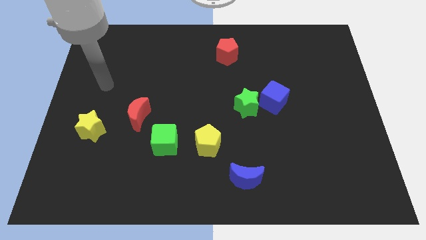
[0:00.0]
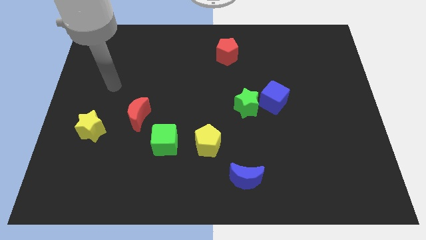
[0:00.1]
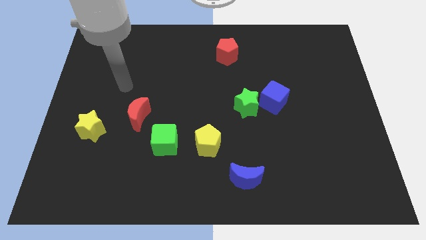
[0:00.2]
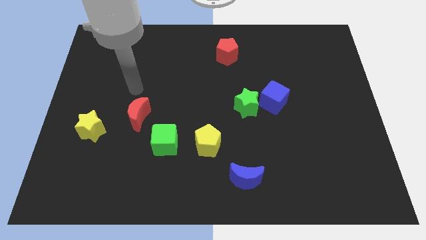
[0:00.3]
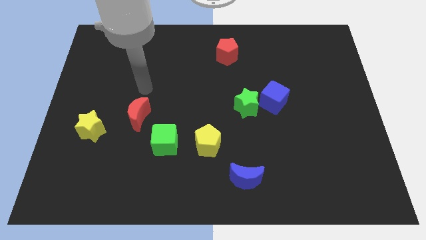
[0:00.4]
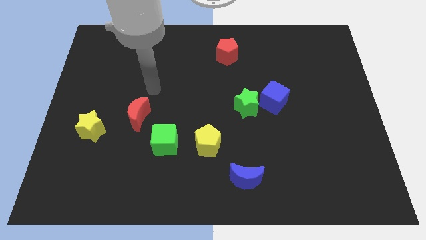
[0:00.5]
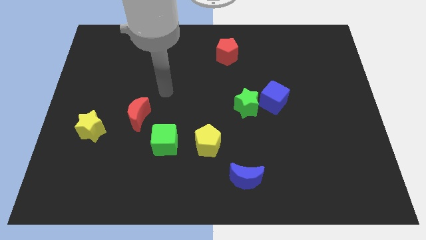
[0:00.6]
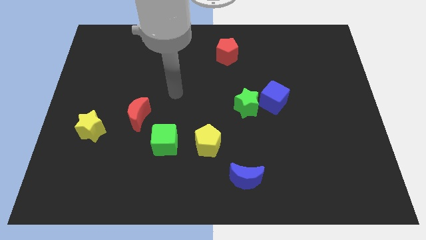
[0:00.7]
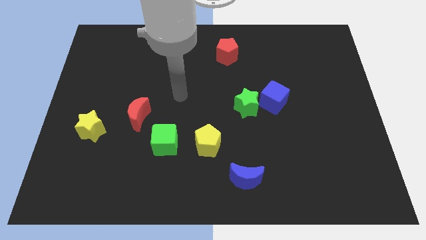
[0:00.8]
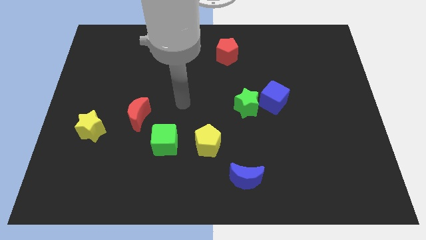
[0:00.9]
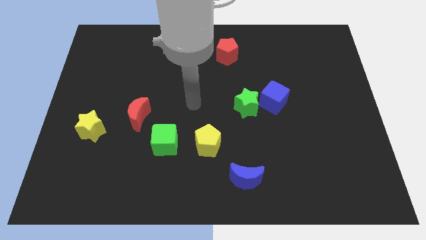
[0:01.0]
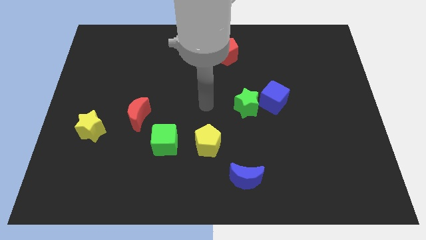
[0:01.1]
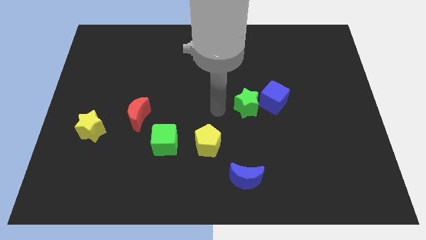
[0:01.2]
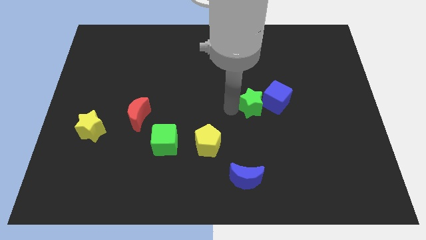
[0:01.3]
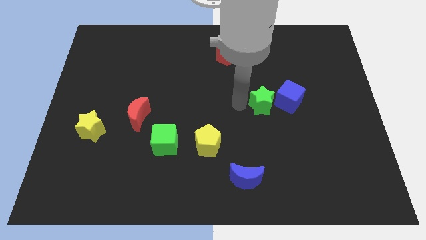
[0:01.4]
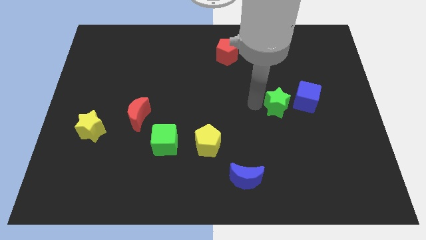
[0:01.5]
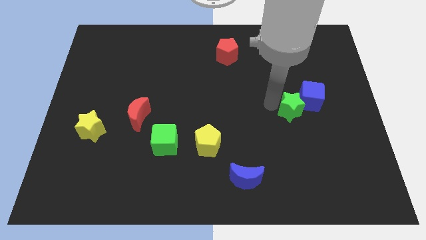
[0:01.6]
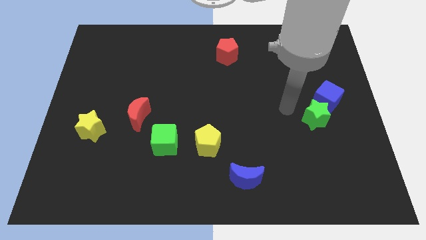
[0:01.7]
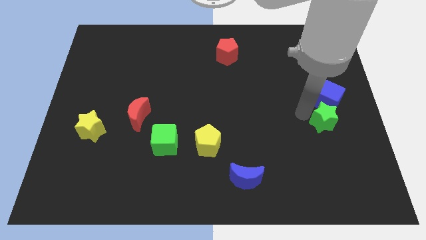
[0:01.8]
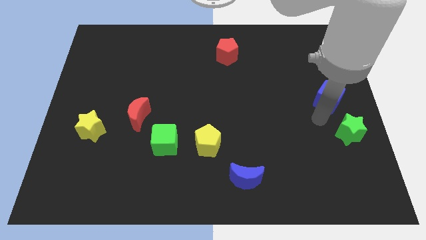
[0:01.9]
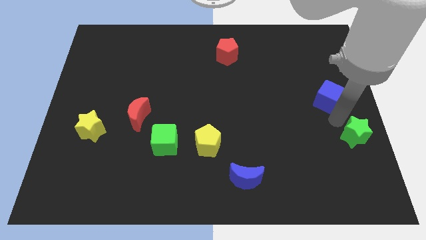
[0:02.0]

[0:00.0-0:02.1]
pull the blue cube apart from the green star

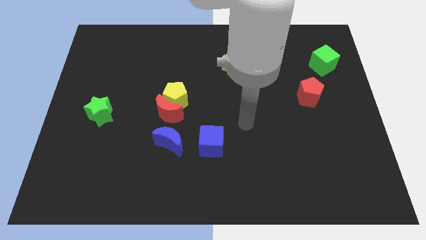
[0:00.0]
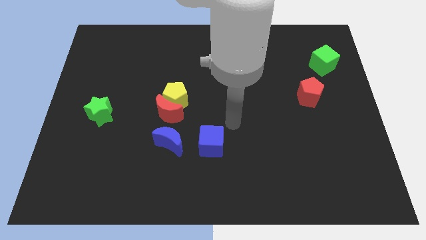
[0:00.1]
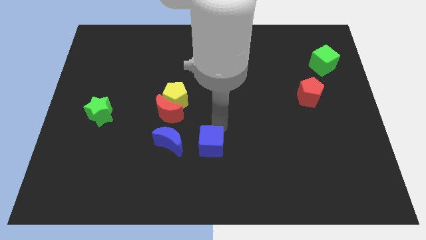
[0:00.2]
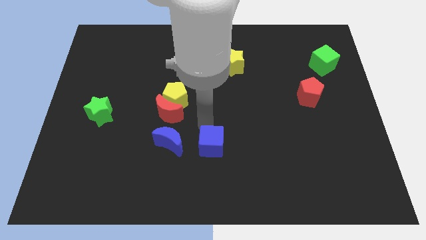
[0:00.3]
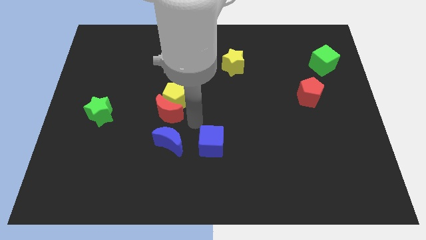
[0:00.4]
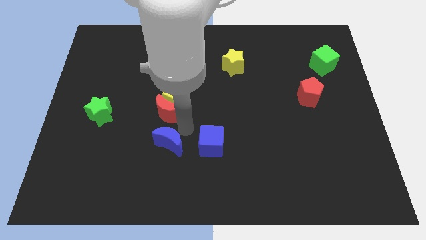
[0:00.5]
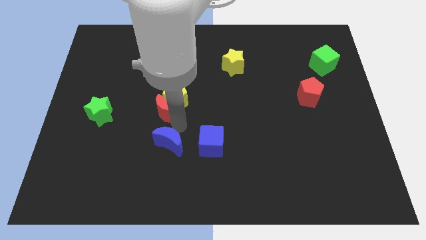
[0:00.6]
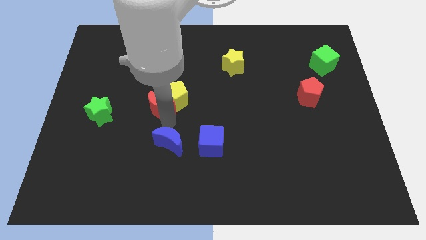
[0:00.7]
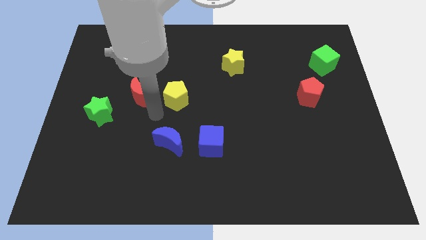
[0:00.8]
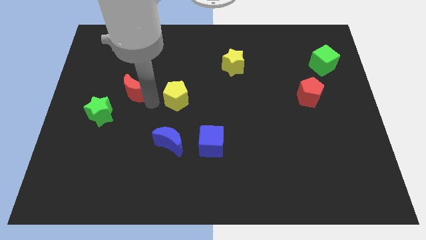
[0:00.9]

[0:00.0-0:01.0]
move the yellow pentagon away from the red moon

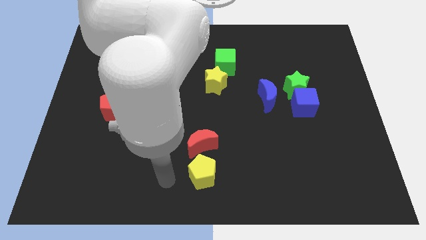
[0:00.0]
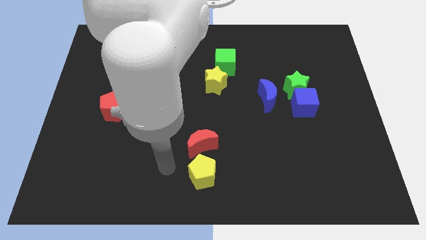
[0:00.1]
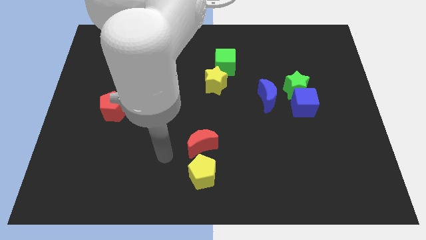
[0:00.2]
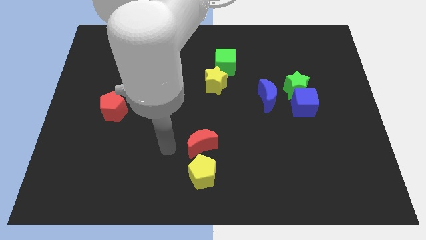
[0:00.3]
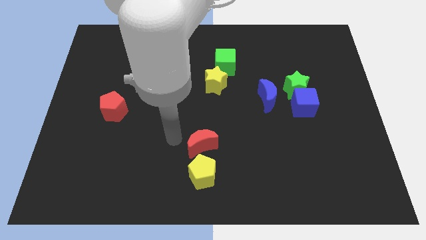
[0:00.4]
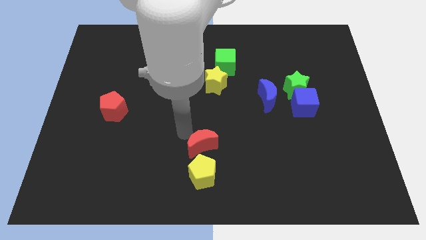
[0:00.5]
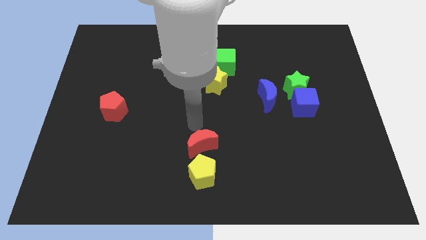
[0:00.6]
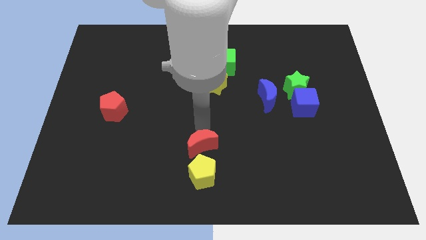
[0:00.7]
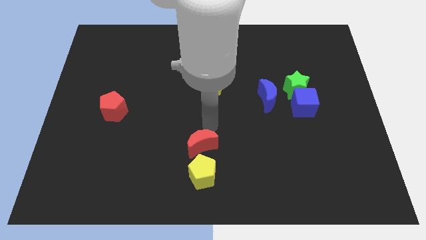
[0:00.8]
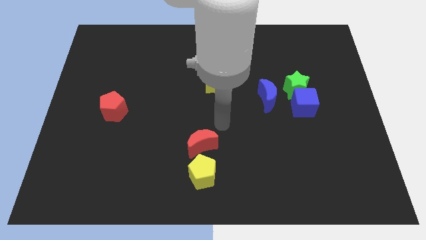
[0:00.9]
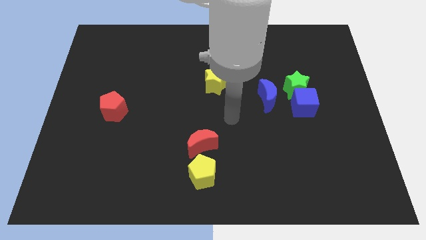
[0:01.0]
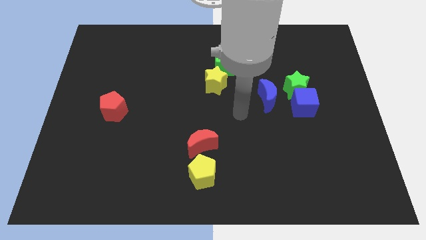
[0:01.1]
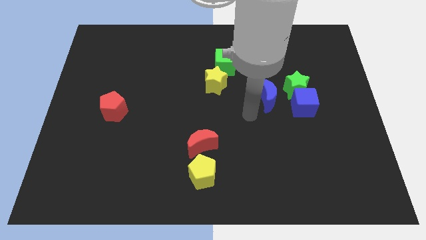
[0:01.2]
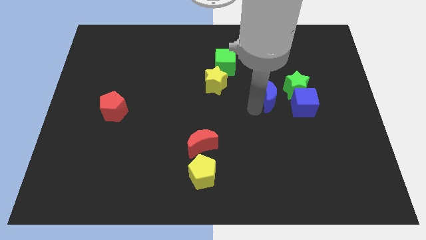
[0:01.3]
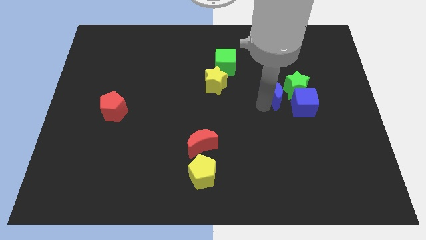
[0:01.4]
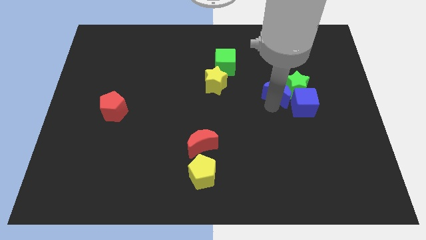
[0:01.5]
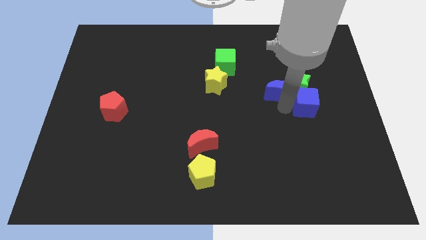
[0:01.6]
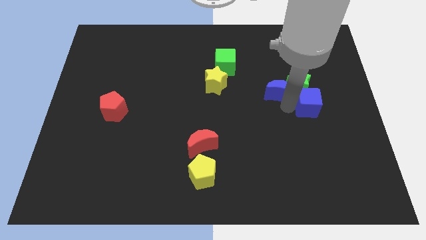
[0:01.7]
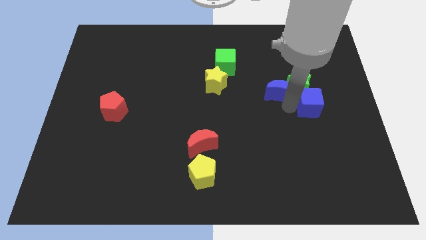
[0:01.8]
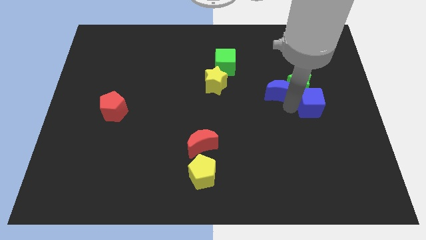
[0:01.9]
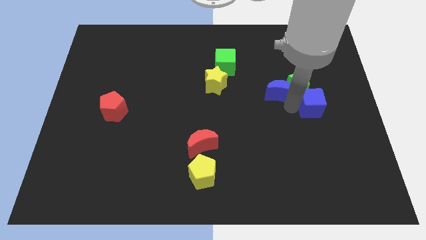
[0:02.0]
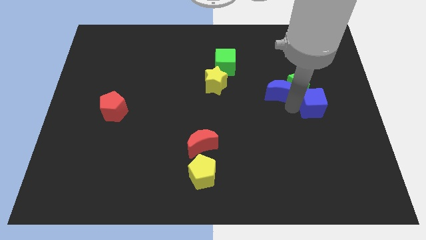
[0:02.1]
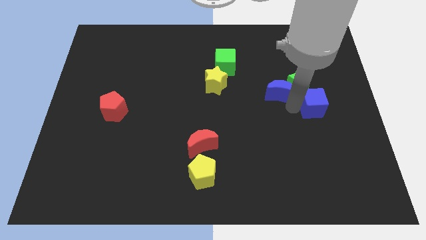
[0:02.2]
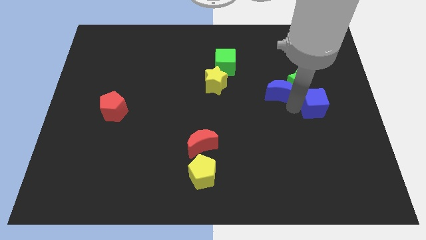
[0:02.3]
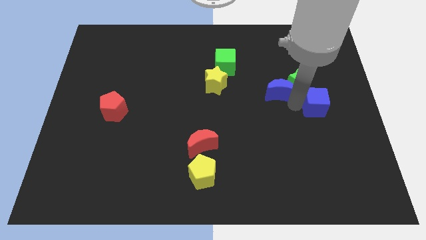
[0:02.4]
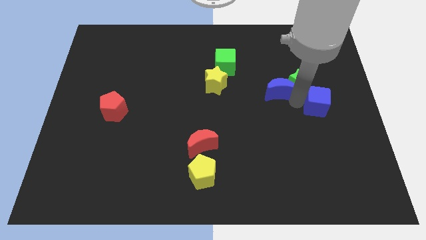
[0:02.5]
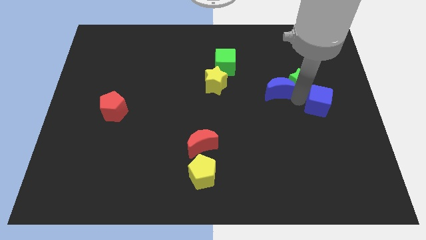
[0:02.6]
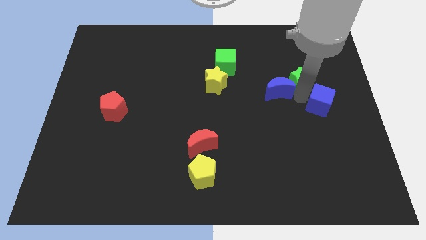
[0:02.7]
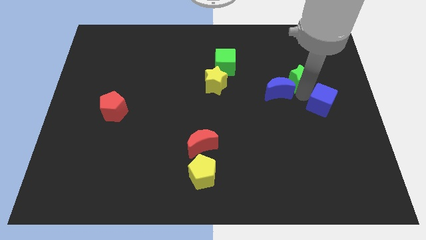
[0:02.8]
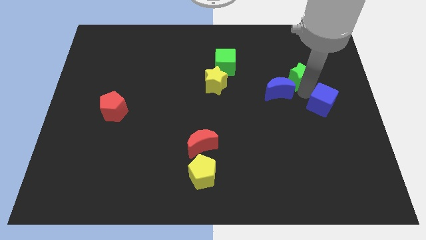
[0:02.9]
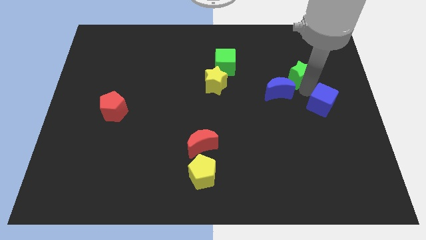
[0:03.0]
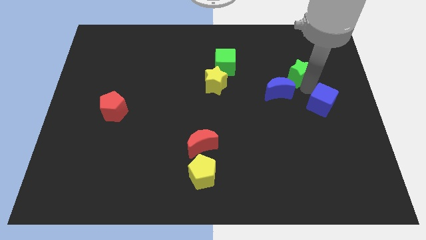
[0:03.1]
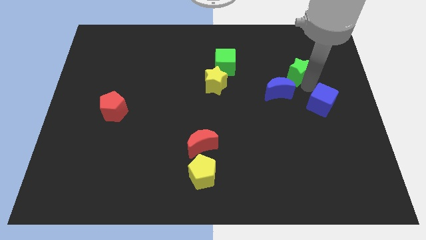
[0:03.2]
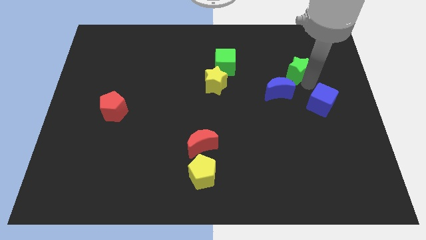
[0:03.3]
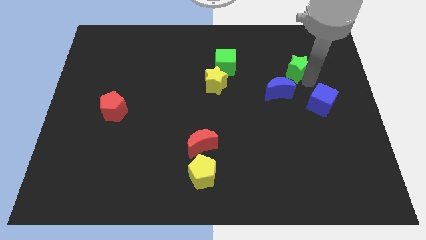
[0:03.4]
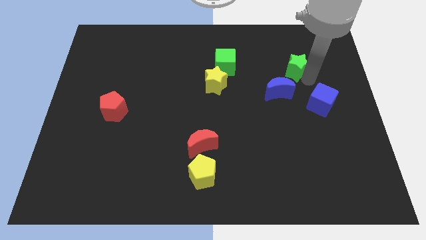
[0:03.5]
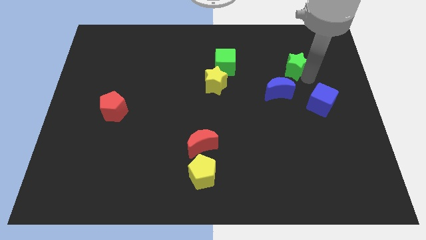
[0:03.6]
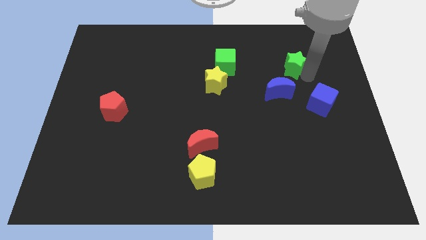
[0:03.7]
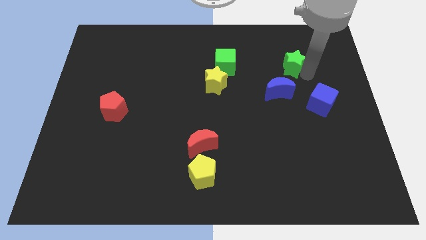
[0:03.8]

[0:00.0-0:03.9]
move the green star away from the blue cube and blue moon

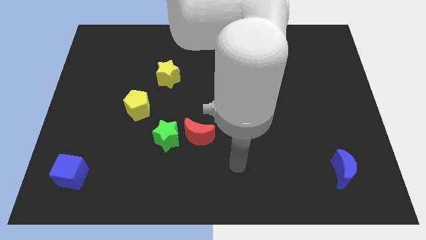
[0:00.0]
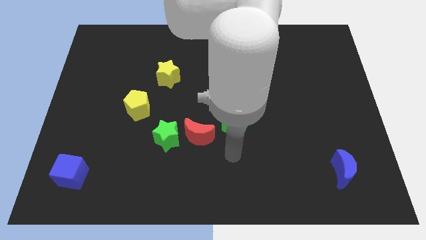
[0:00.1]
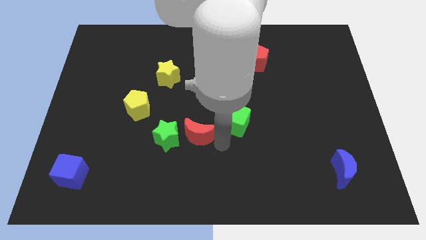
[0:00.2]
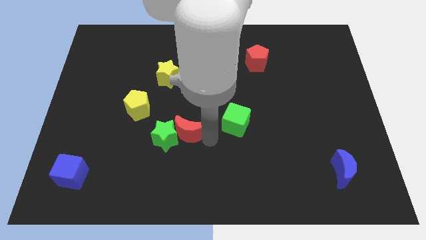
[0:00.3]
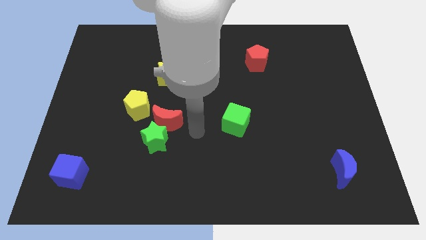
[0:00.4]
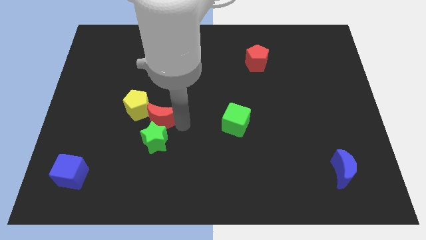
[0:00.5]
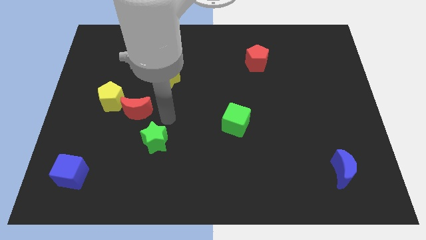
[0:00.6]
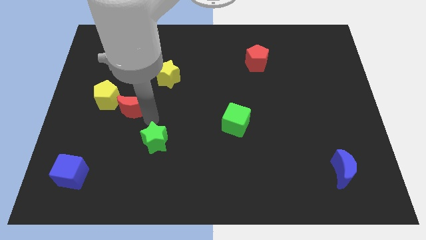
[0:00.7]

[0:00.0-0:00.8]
separate the green star from the red moon

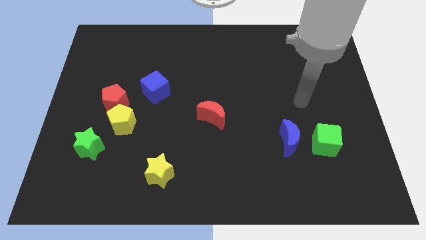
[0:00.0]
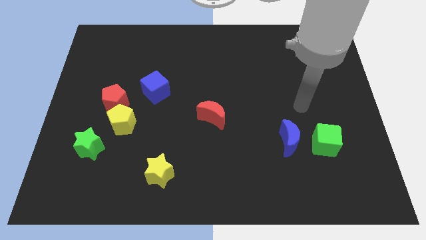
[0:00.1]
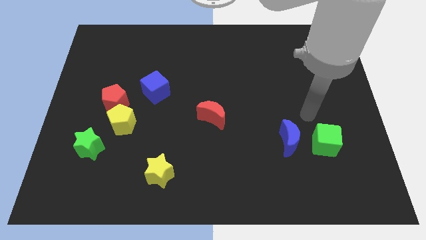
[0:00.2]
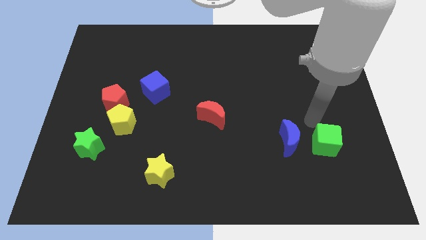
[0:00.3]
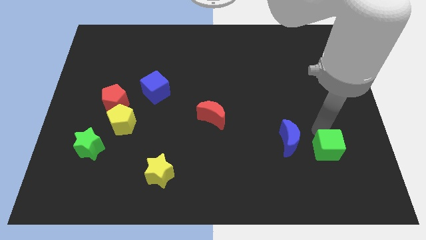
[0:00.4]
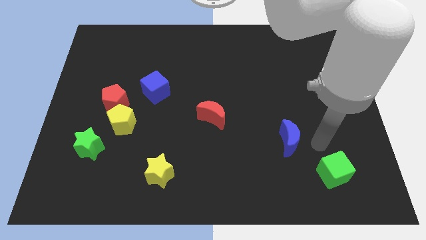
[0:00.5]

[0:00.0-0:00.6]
move the blue moon away from the green cube

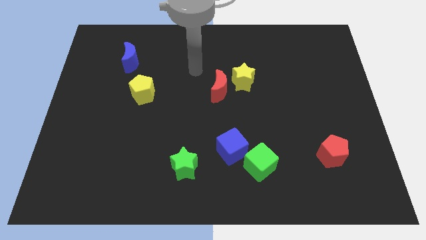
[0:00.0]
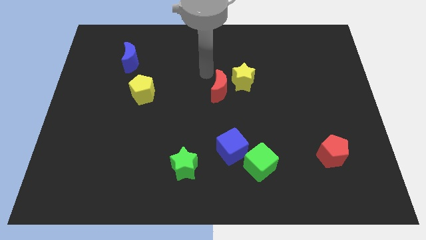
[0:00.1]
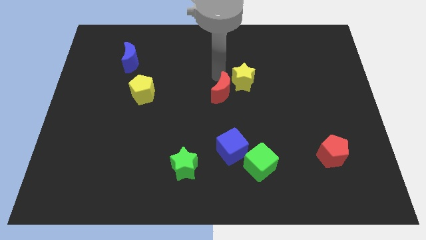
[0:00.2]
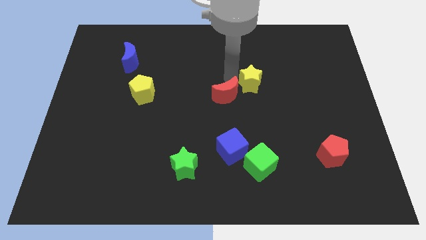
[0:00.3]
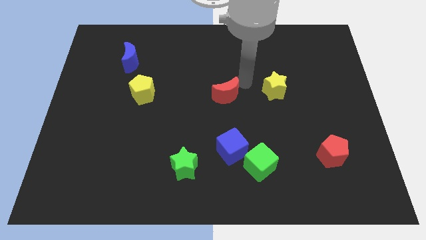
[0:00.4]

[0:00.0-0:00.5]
pull the red moon apart from the yellow star

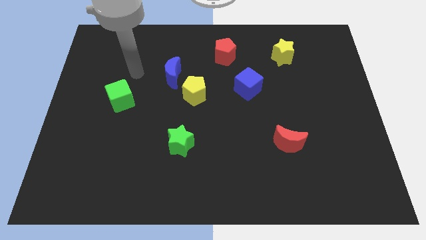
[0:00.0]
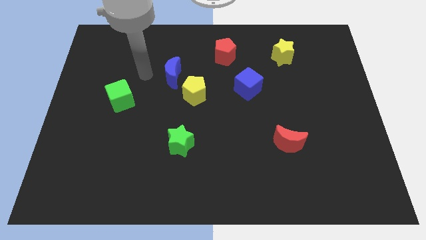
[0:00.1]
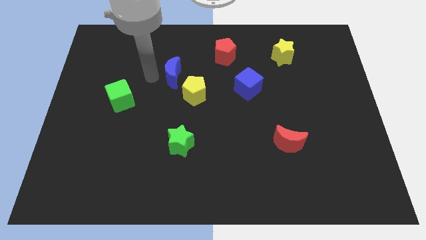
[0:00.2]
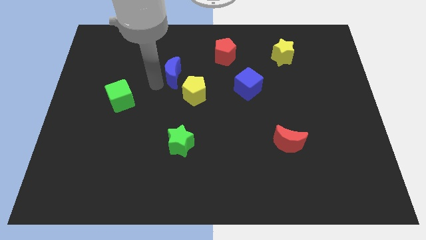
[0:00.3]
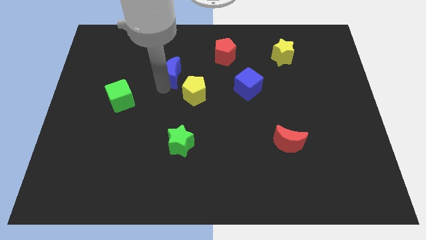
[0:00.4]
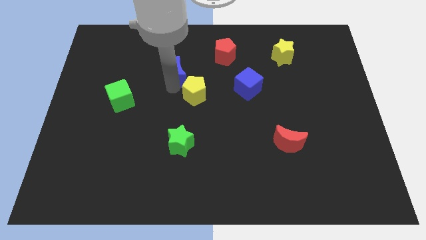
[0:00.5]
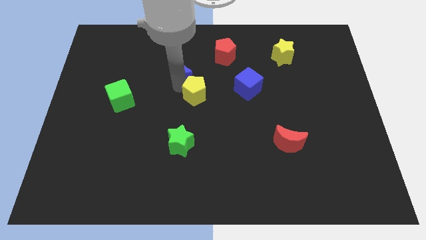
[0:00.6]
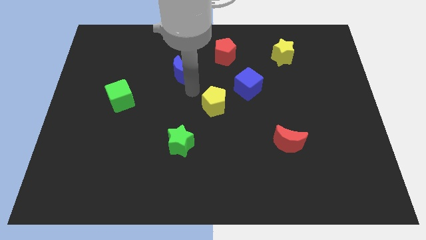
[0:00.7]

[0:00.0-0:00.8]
move the blue moon away from the yellow pentagon
